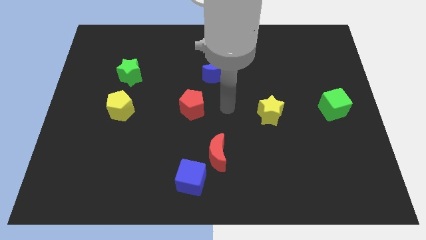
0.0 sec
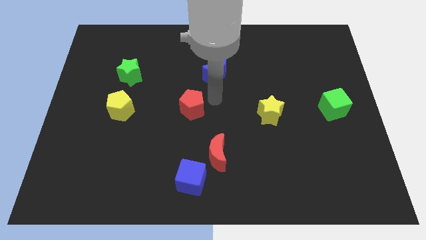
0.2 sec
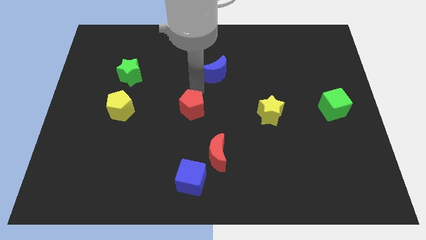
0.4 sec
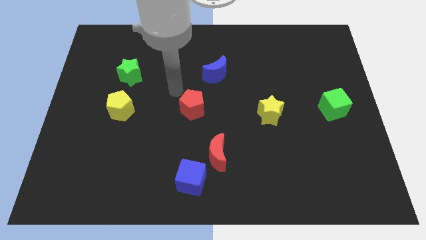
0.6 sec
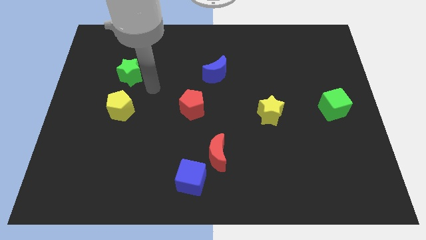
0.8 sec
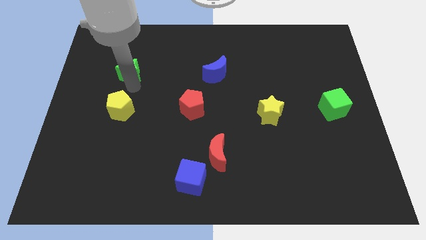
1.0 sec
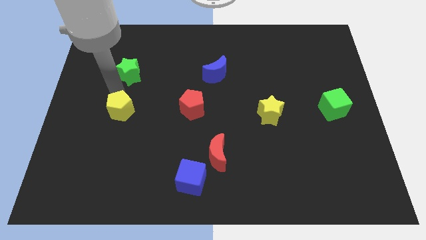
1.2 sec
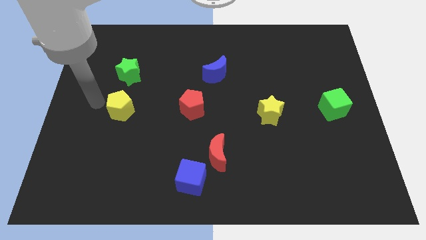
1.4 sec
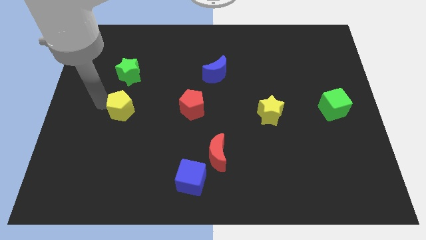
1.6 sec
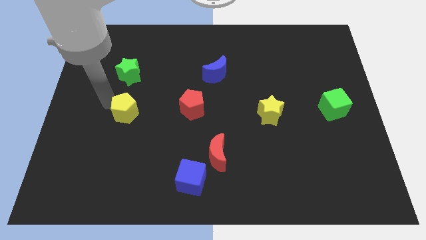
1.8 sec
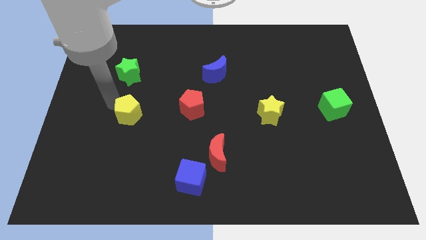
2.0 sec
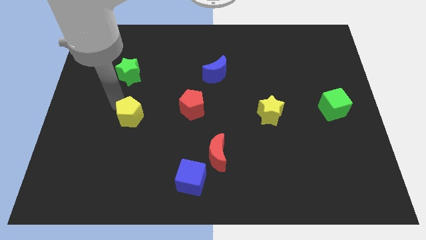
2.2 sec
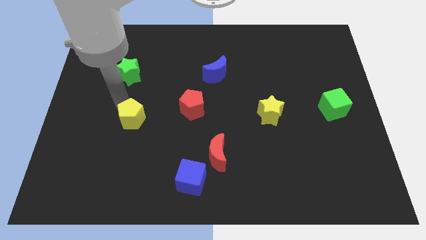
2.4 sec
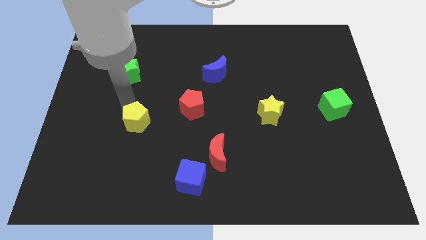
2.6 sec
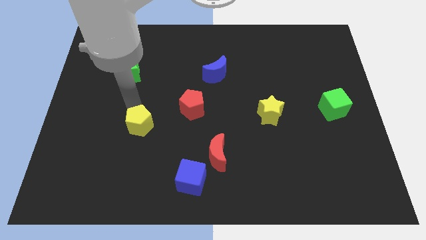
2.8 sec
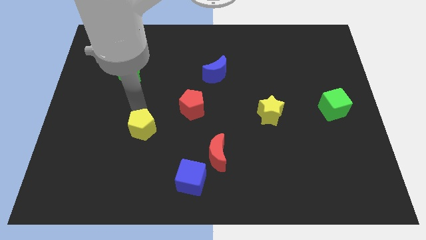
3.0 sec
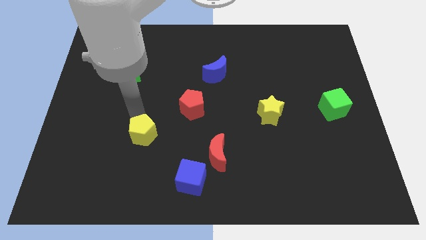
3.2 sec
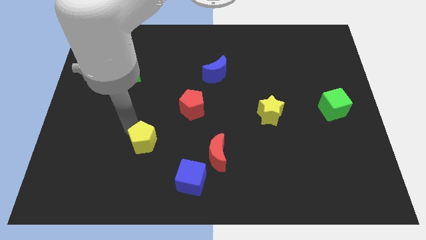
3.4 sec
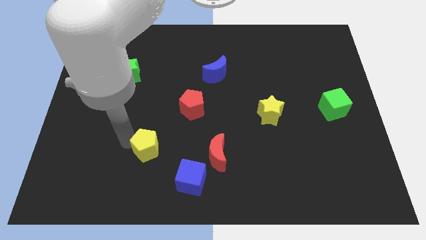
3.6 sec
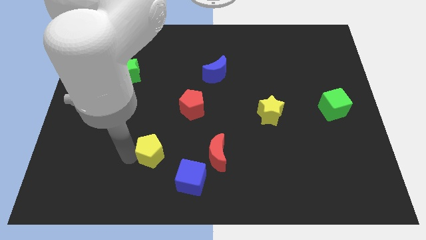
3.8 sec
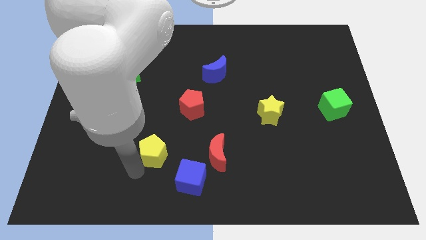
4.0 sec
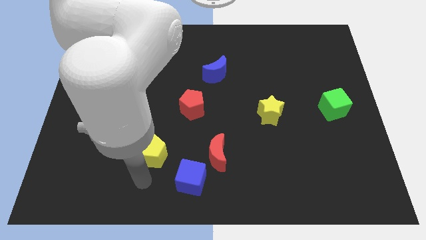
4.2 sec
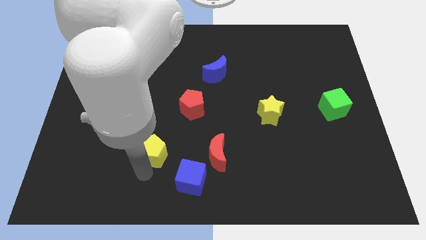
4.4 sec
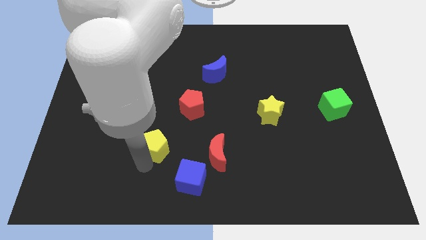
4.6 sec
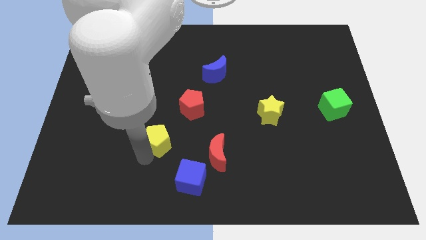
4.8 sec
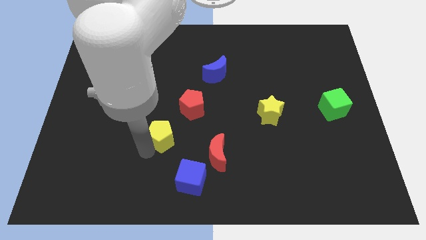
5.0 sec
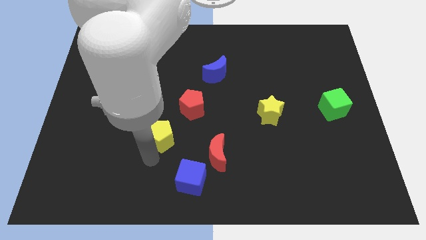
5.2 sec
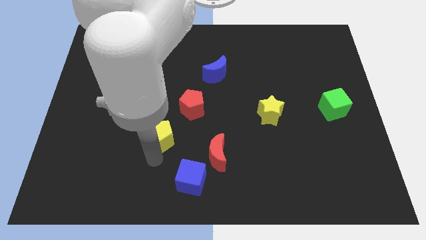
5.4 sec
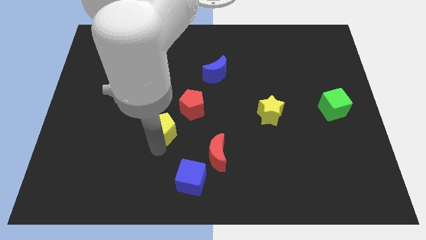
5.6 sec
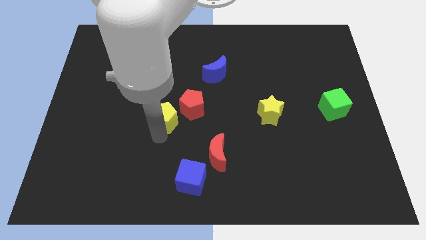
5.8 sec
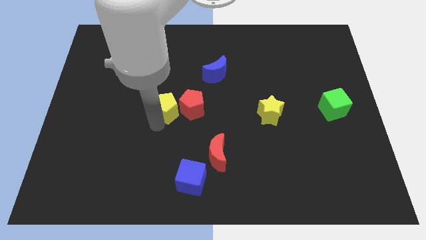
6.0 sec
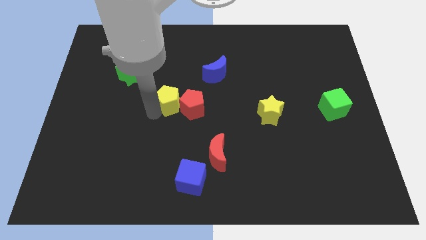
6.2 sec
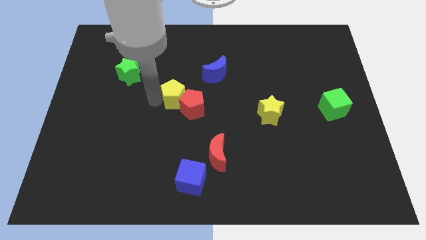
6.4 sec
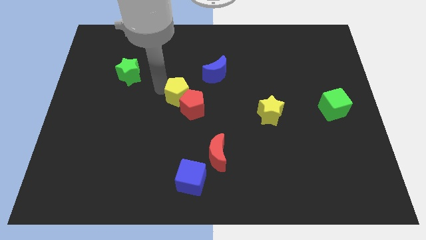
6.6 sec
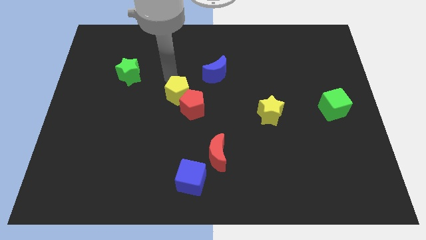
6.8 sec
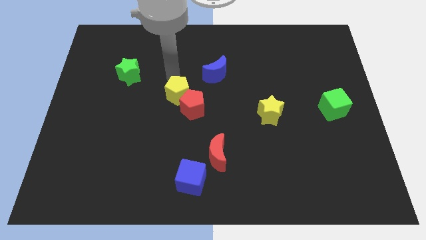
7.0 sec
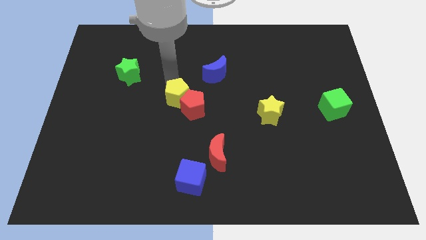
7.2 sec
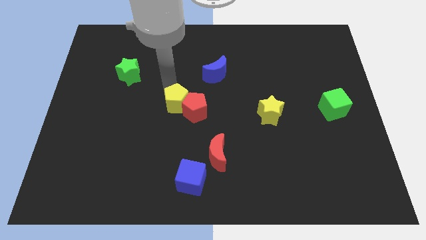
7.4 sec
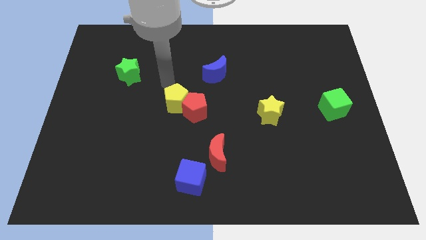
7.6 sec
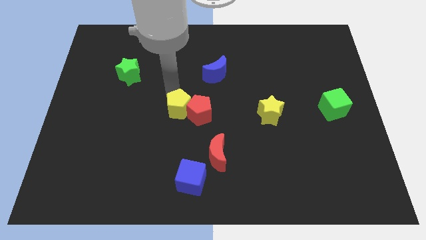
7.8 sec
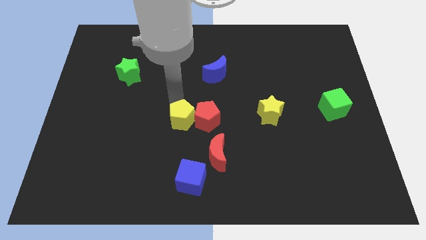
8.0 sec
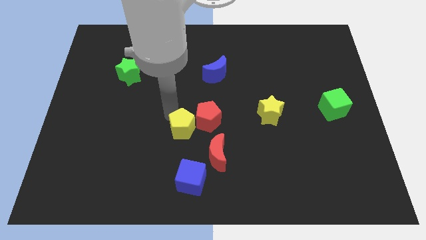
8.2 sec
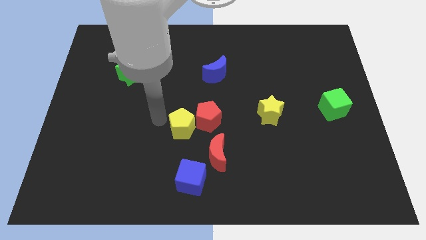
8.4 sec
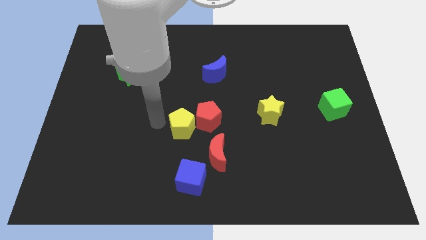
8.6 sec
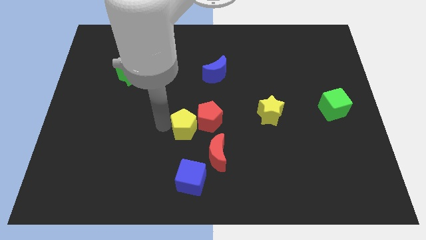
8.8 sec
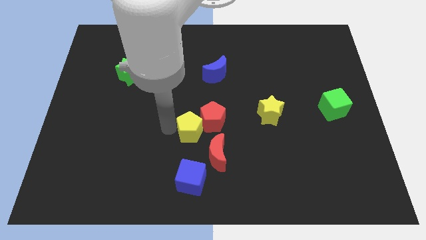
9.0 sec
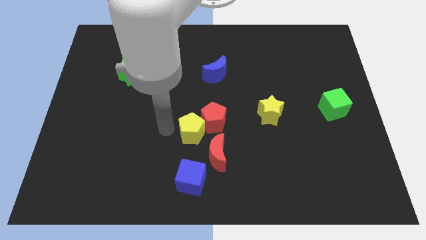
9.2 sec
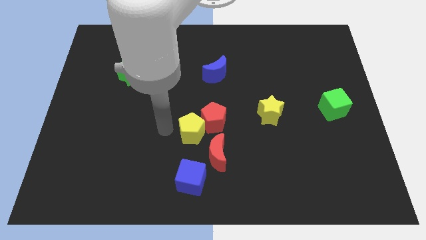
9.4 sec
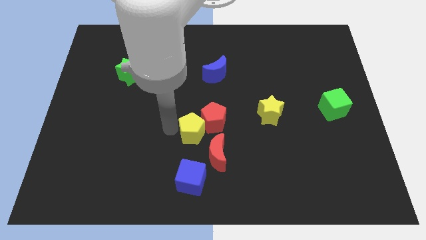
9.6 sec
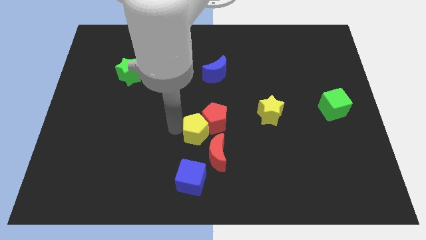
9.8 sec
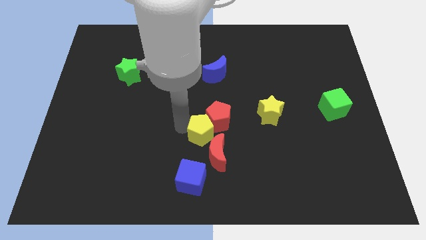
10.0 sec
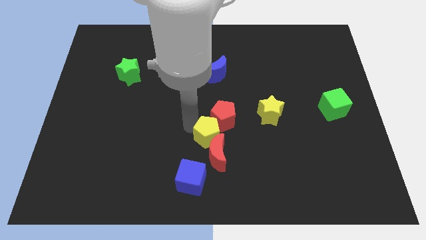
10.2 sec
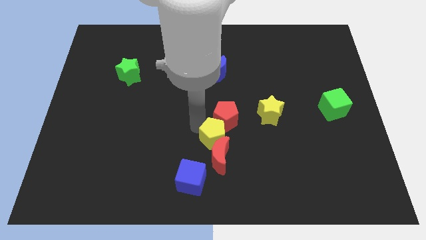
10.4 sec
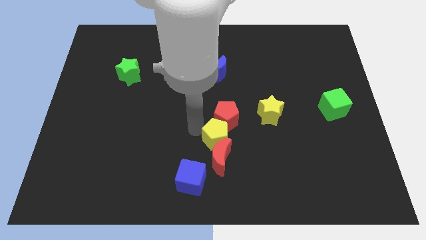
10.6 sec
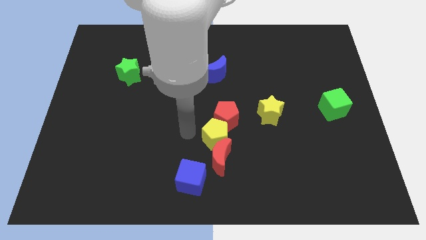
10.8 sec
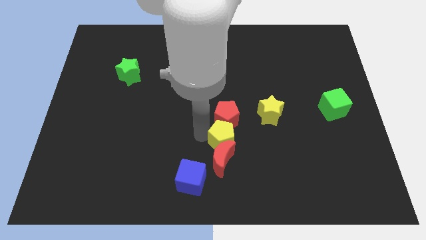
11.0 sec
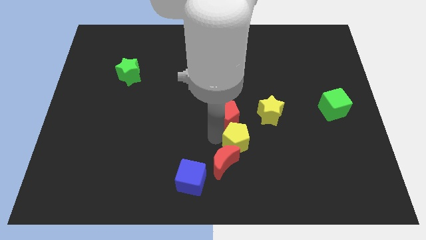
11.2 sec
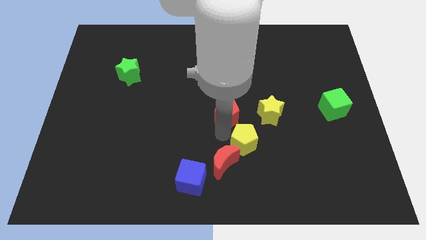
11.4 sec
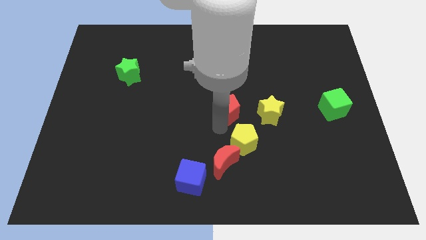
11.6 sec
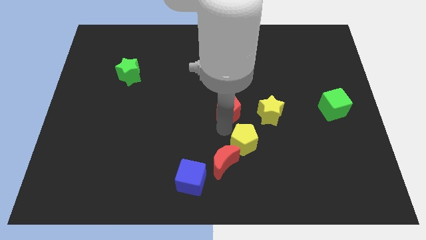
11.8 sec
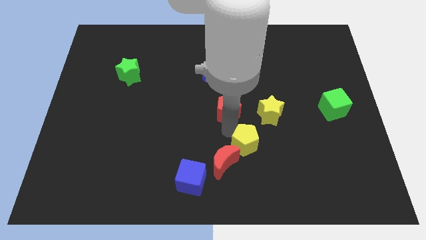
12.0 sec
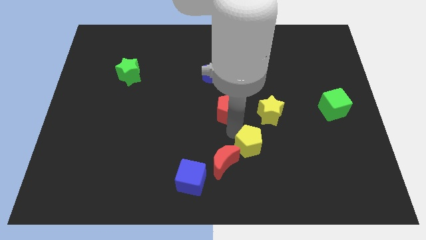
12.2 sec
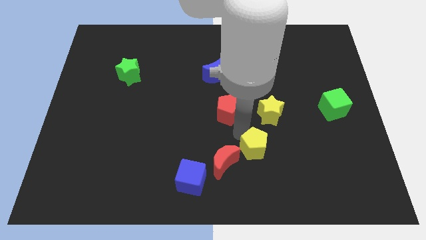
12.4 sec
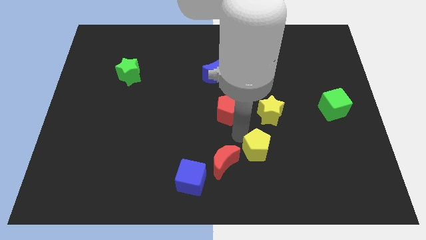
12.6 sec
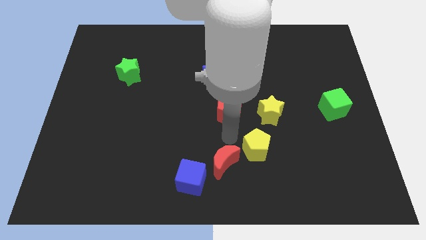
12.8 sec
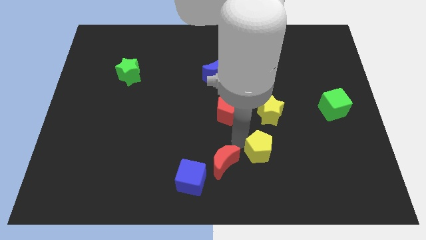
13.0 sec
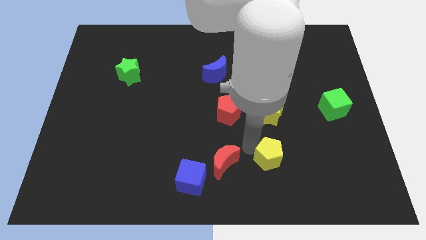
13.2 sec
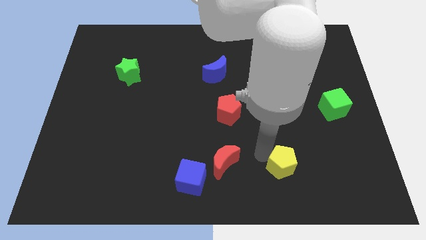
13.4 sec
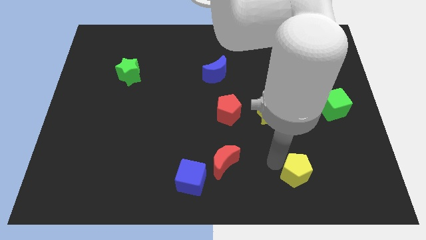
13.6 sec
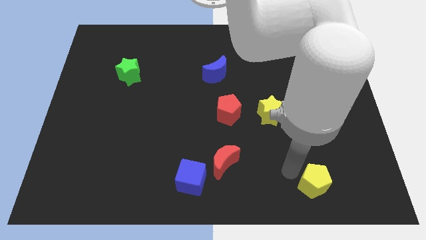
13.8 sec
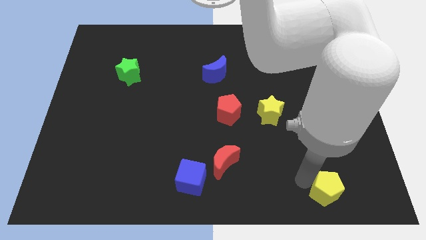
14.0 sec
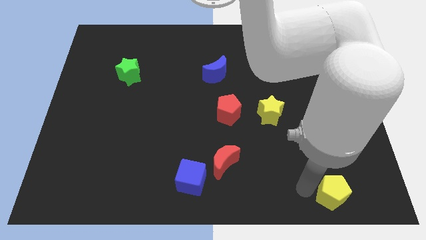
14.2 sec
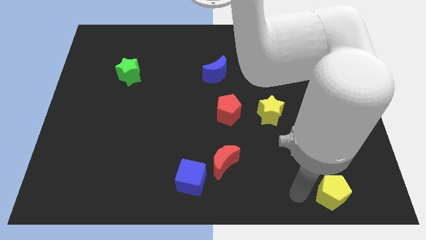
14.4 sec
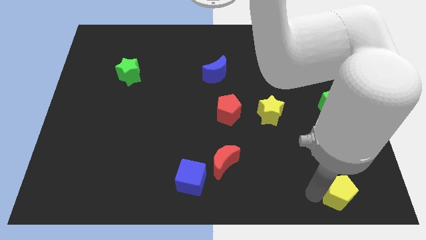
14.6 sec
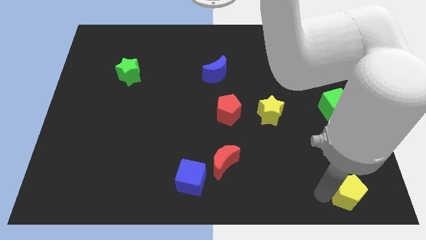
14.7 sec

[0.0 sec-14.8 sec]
push the yellow pentagon to the lower right corner
